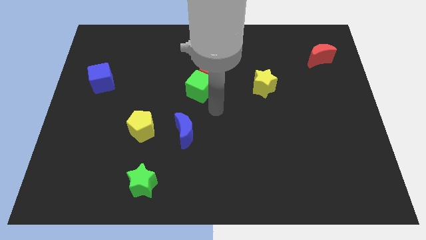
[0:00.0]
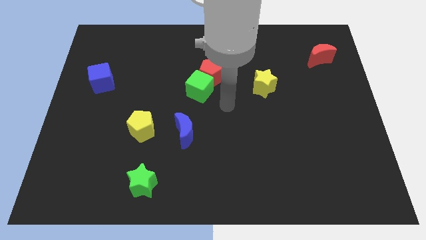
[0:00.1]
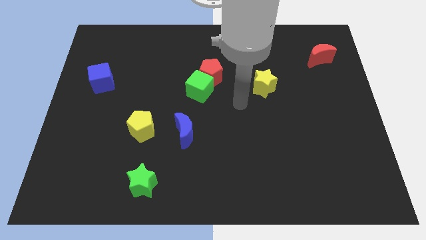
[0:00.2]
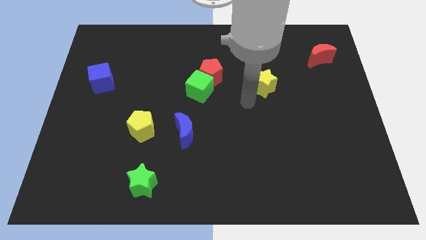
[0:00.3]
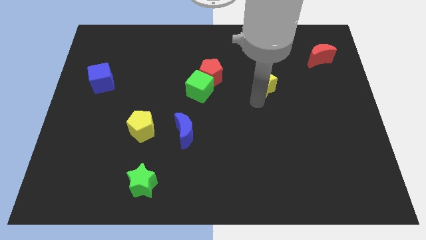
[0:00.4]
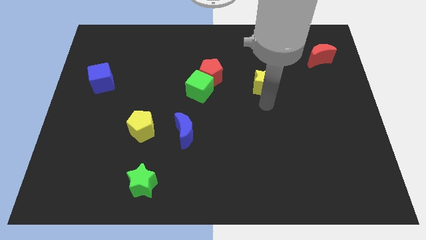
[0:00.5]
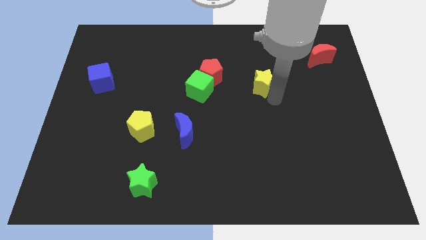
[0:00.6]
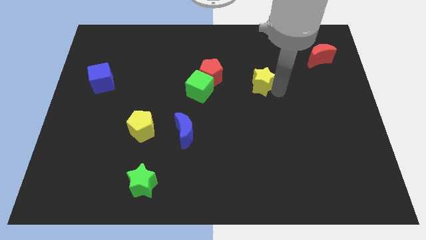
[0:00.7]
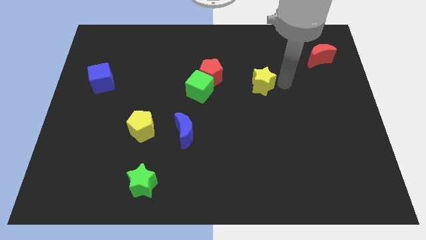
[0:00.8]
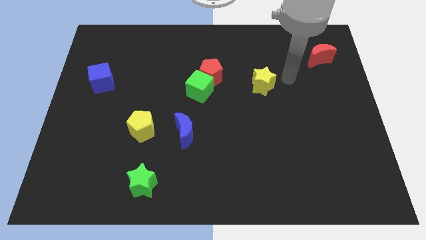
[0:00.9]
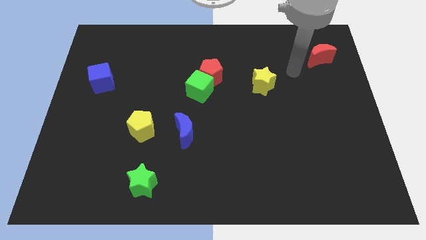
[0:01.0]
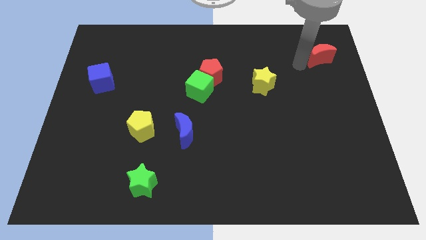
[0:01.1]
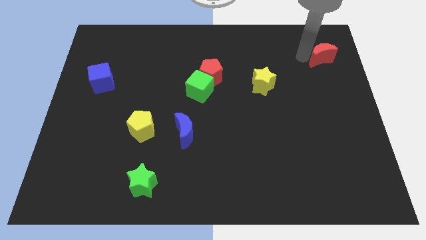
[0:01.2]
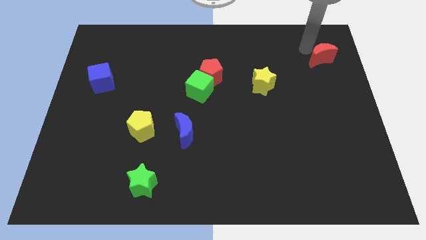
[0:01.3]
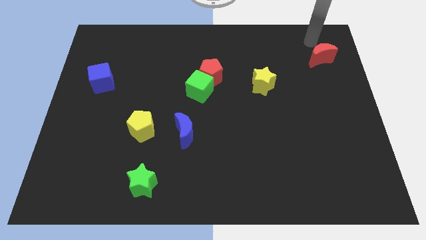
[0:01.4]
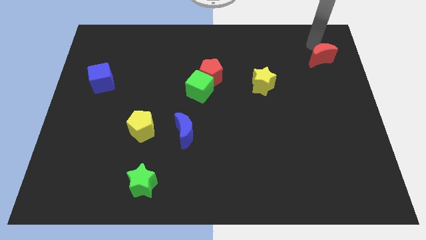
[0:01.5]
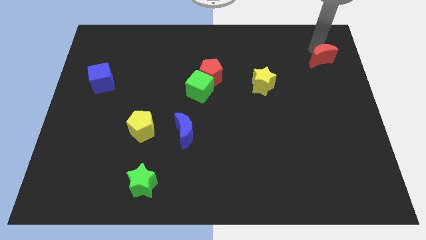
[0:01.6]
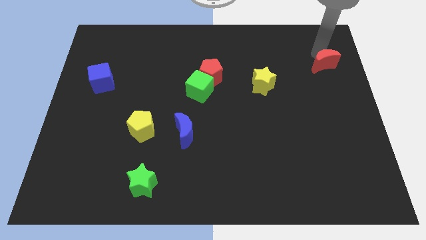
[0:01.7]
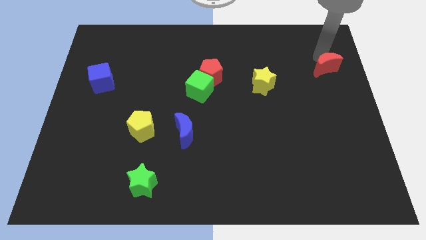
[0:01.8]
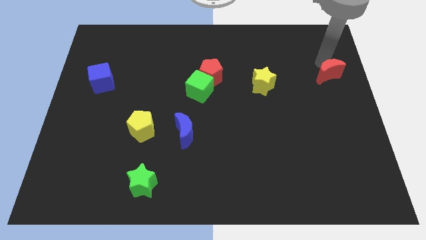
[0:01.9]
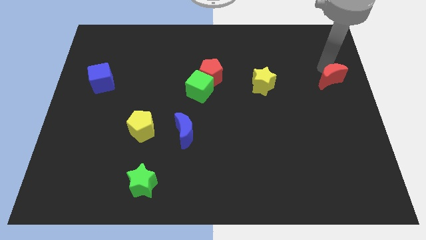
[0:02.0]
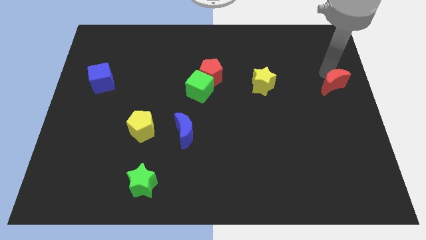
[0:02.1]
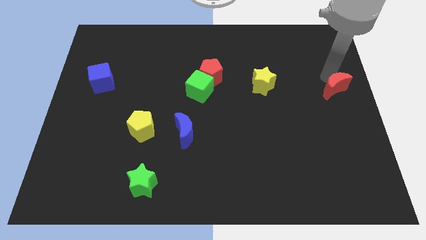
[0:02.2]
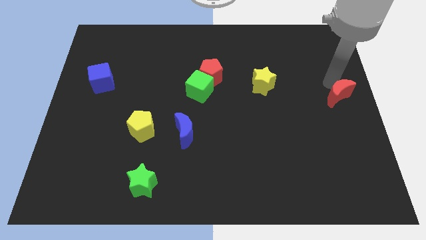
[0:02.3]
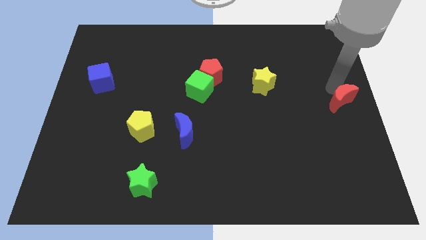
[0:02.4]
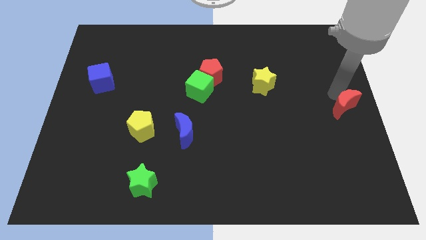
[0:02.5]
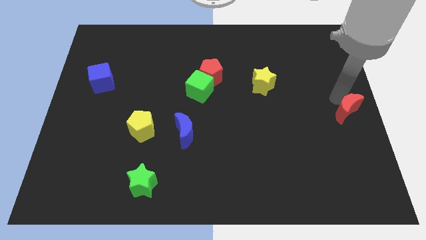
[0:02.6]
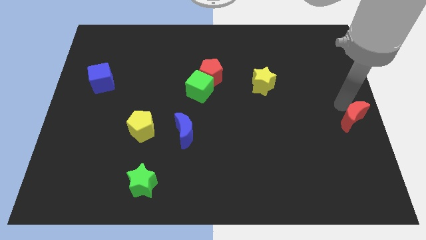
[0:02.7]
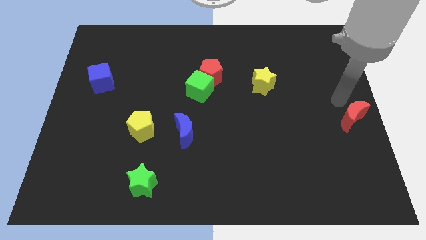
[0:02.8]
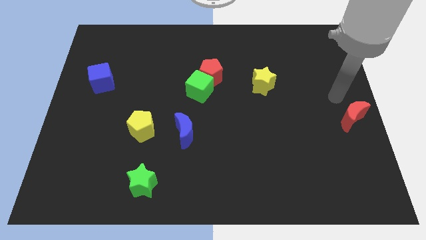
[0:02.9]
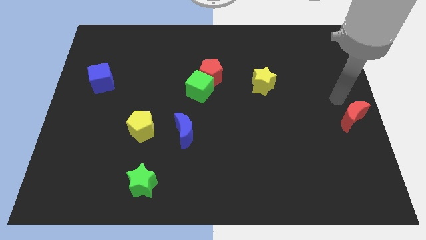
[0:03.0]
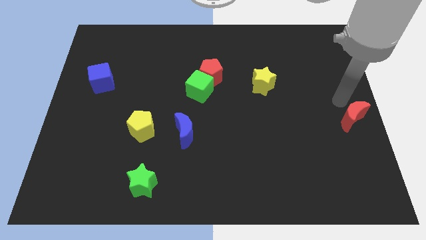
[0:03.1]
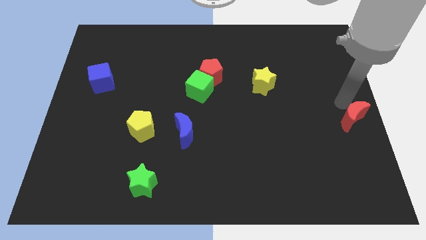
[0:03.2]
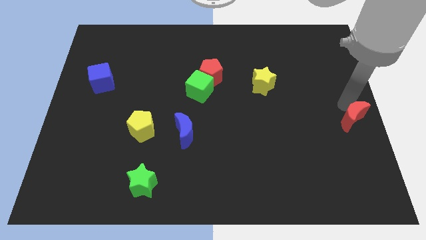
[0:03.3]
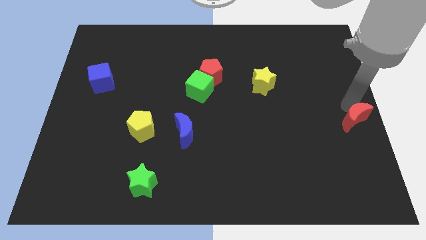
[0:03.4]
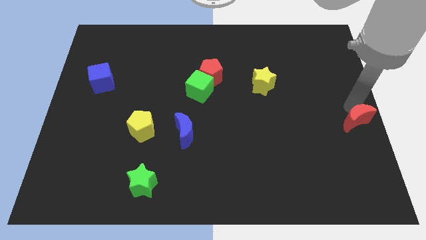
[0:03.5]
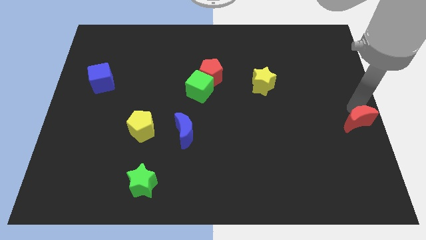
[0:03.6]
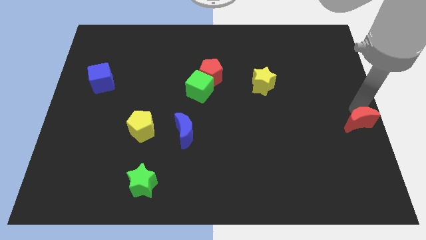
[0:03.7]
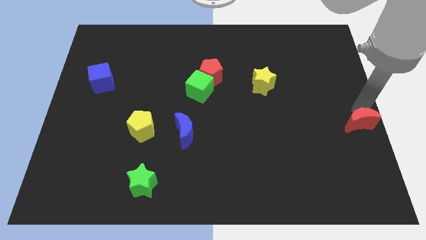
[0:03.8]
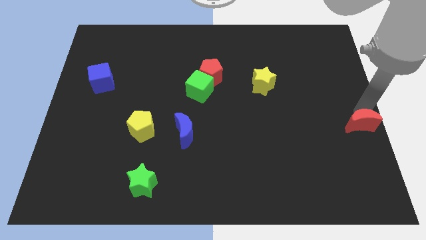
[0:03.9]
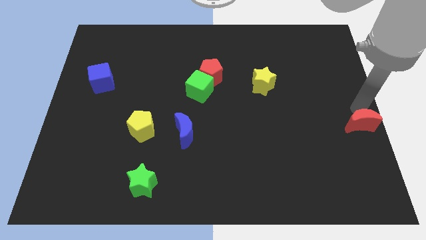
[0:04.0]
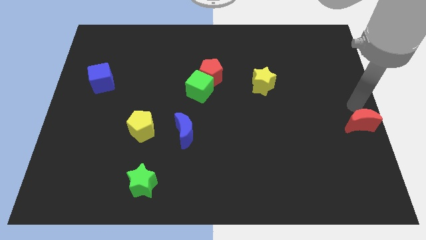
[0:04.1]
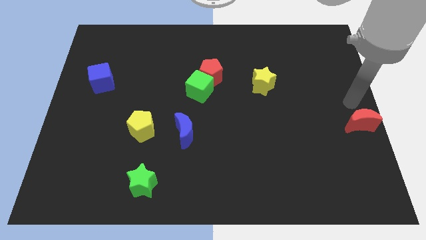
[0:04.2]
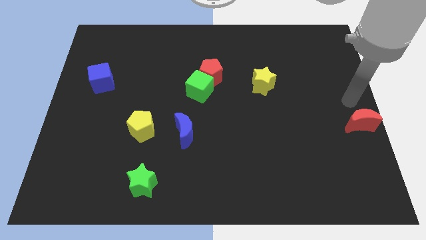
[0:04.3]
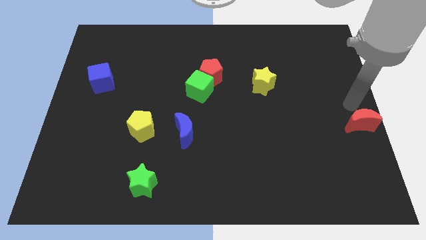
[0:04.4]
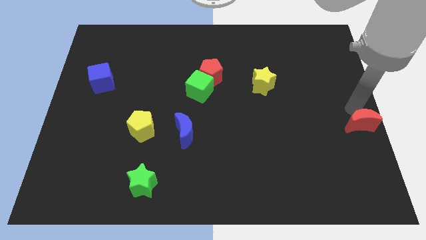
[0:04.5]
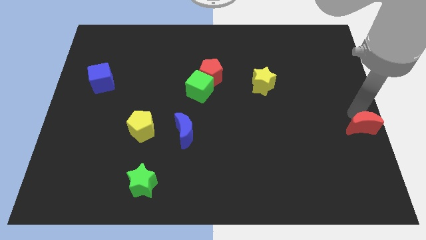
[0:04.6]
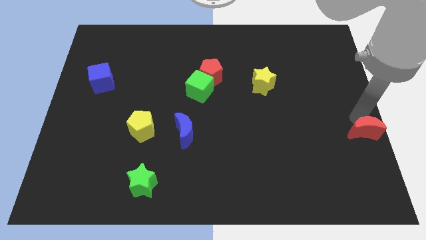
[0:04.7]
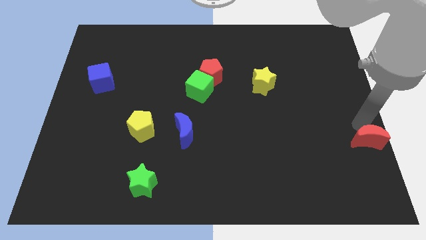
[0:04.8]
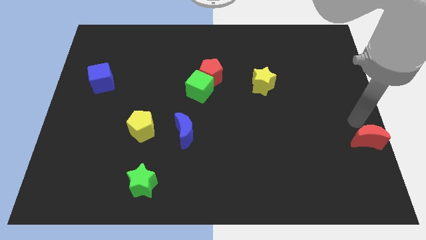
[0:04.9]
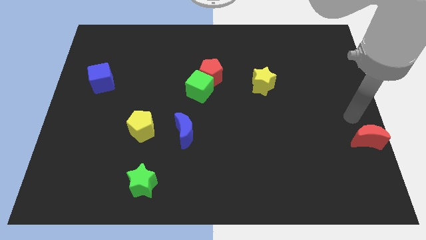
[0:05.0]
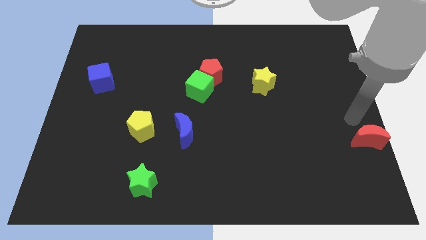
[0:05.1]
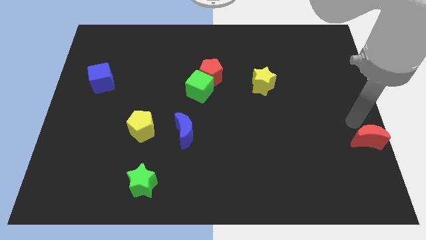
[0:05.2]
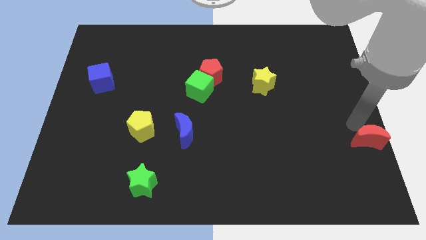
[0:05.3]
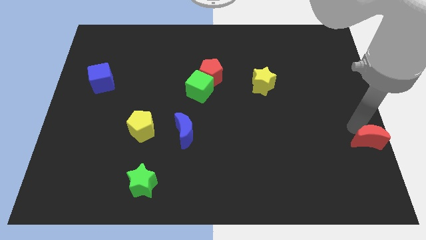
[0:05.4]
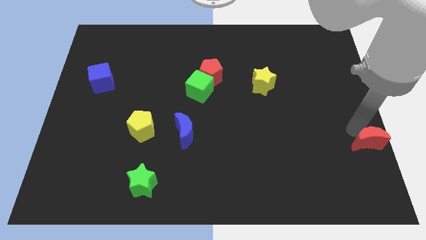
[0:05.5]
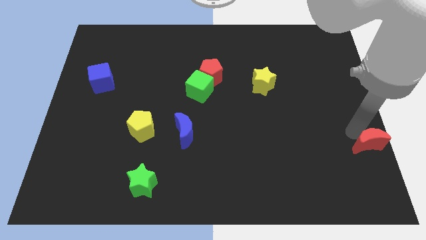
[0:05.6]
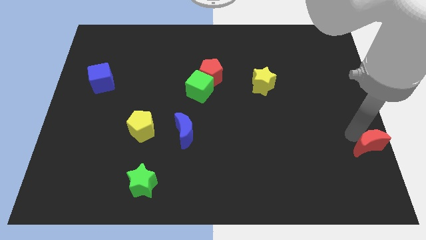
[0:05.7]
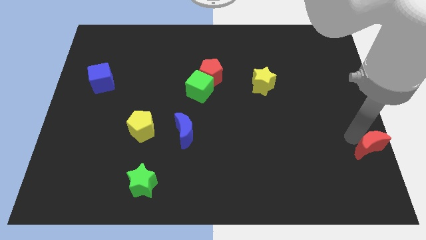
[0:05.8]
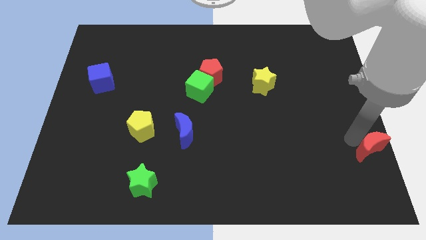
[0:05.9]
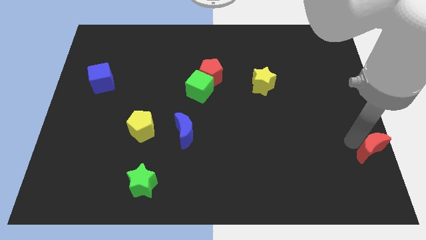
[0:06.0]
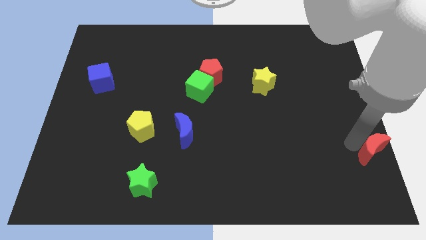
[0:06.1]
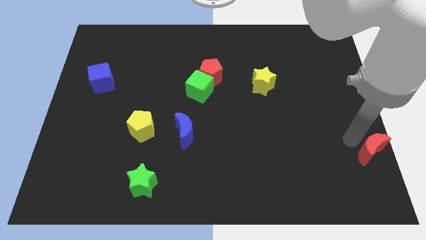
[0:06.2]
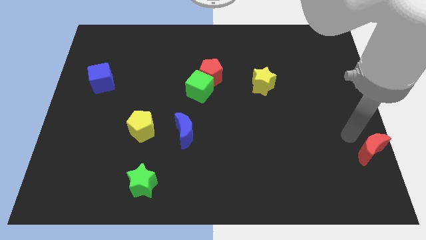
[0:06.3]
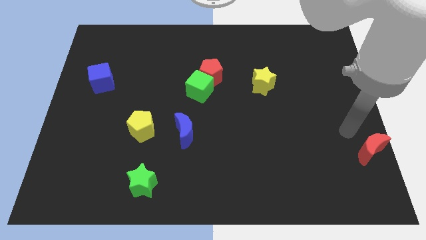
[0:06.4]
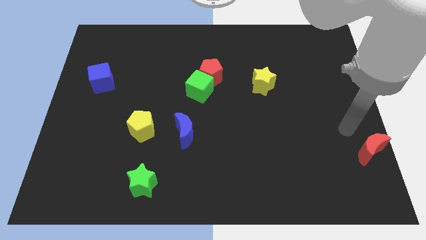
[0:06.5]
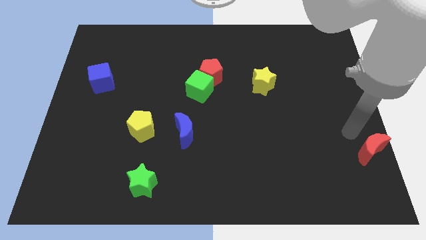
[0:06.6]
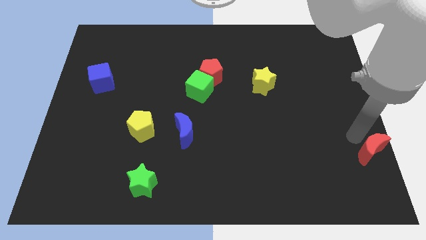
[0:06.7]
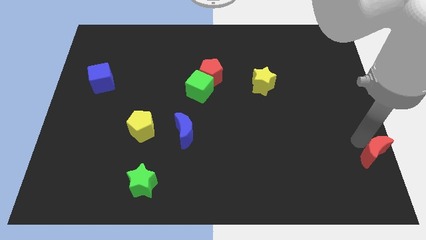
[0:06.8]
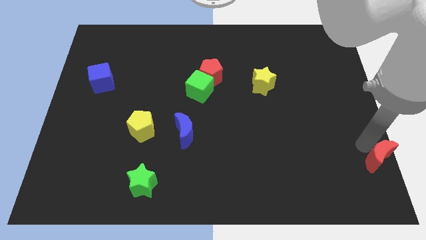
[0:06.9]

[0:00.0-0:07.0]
push the red moon to the bottom right
